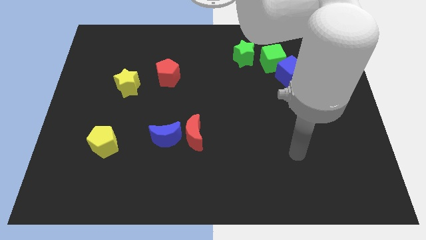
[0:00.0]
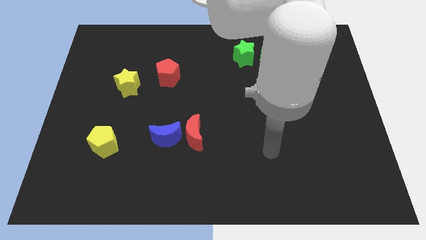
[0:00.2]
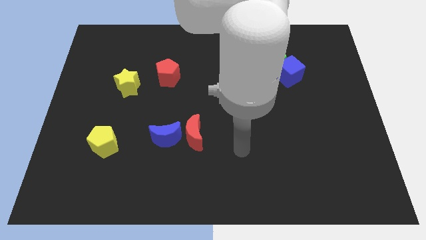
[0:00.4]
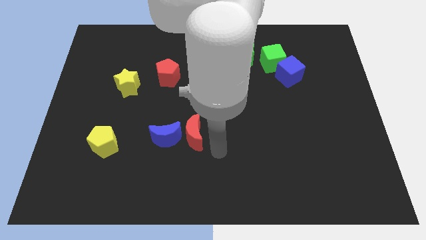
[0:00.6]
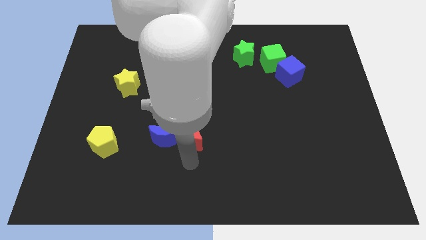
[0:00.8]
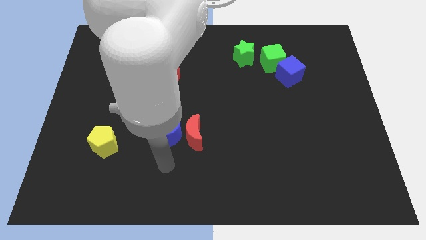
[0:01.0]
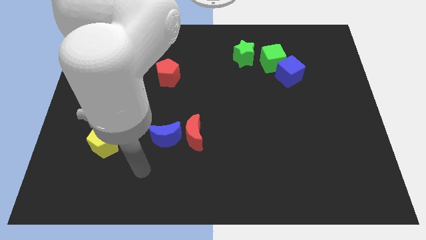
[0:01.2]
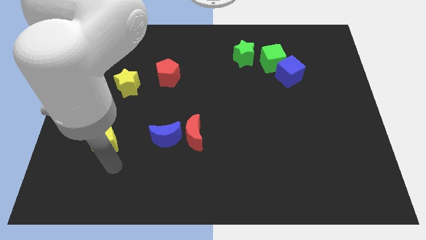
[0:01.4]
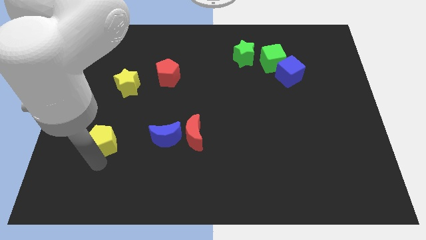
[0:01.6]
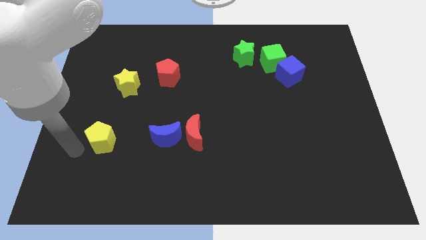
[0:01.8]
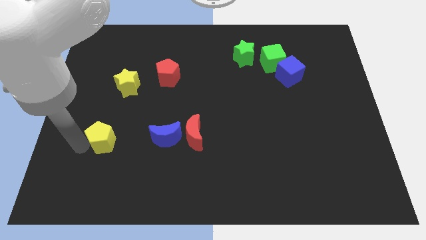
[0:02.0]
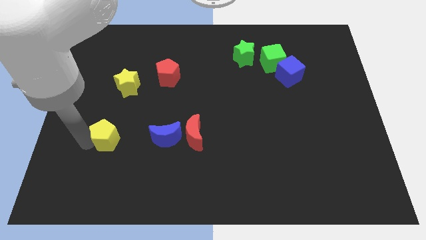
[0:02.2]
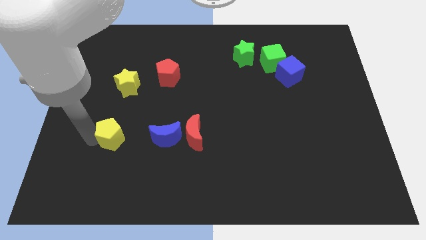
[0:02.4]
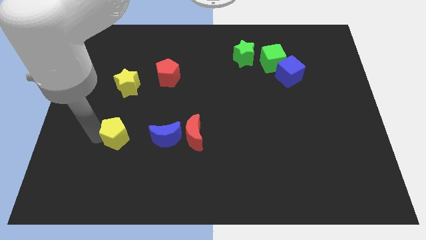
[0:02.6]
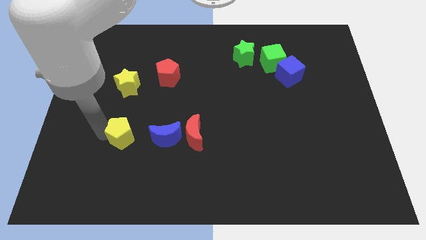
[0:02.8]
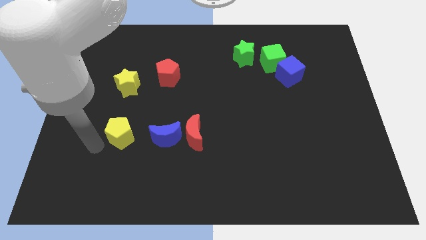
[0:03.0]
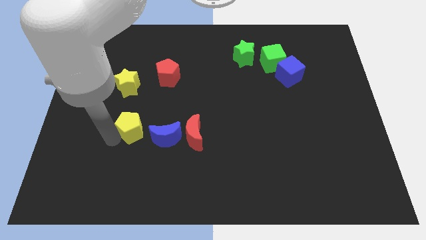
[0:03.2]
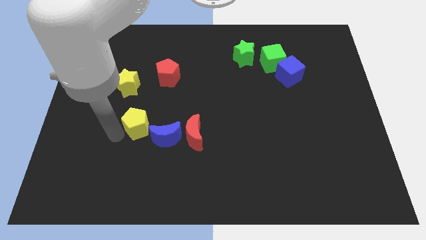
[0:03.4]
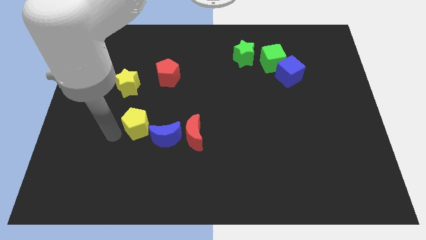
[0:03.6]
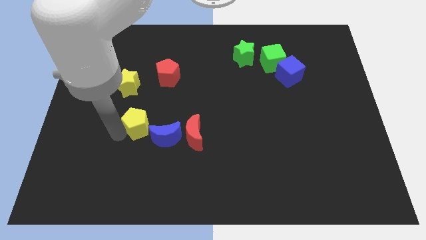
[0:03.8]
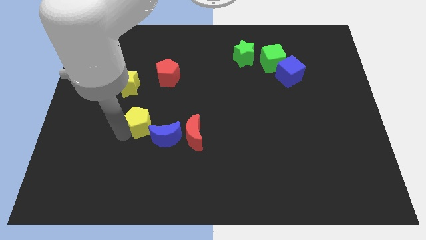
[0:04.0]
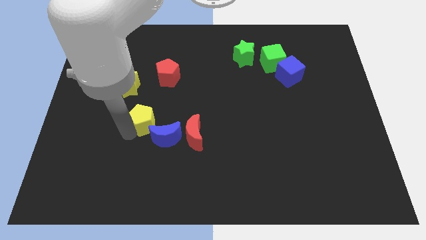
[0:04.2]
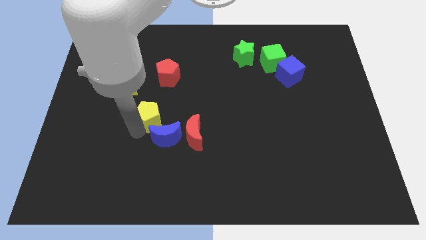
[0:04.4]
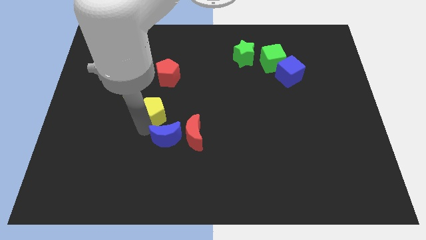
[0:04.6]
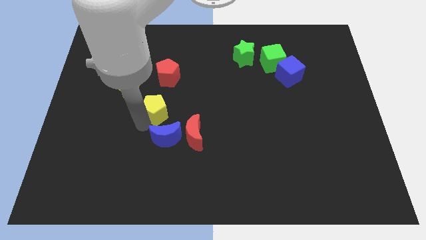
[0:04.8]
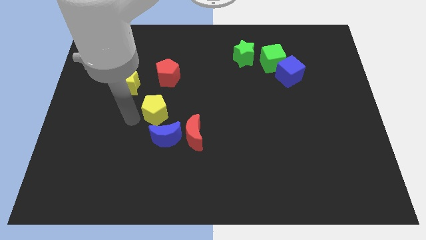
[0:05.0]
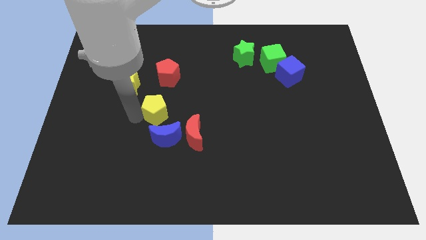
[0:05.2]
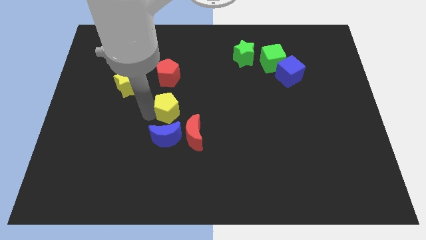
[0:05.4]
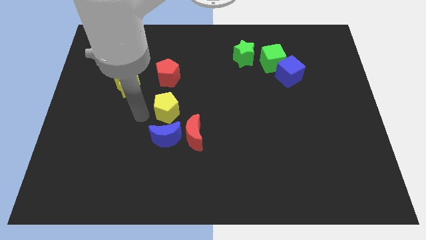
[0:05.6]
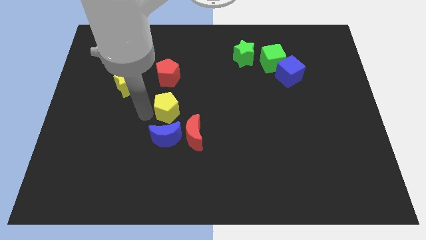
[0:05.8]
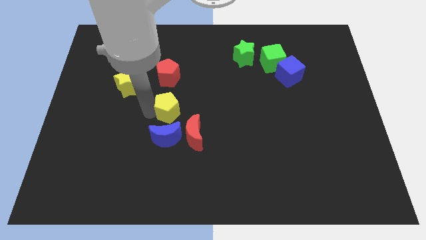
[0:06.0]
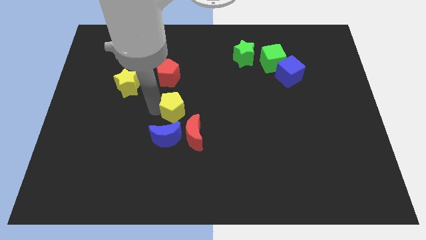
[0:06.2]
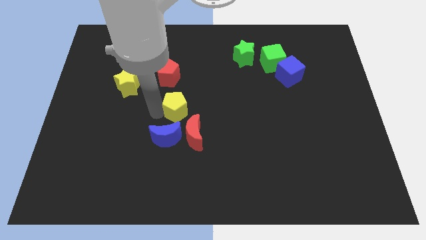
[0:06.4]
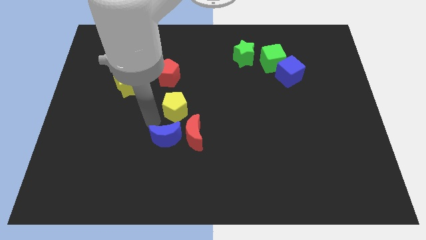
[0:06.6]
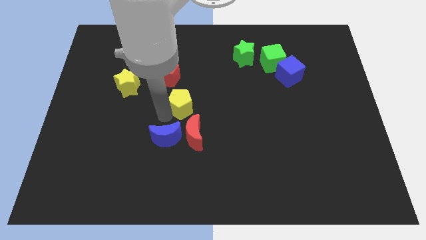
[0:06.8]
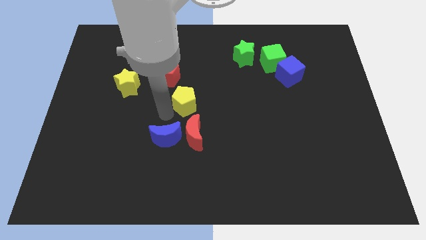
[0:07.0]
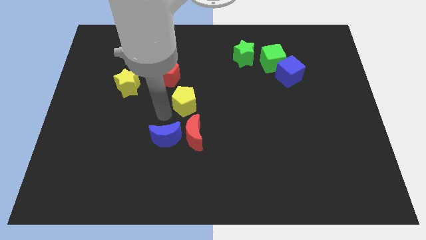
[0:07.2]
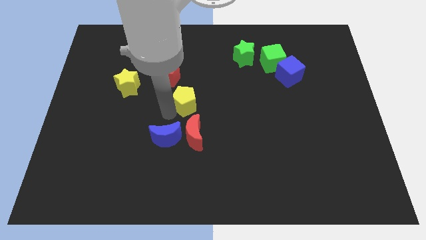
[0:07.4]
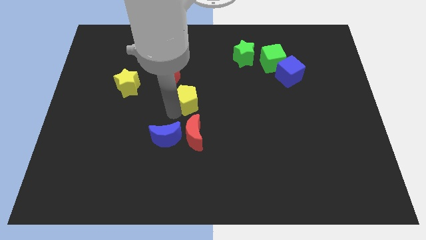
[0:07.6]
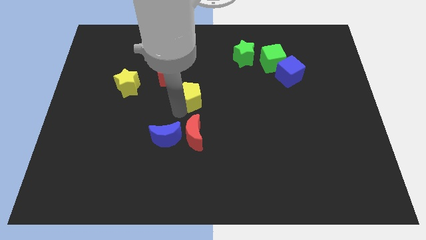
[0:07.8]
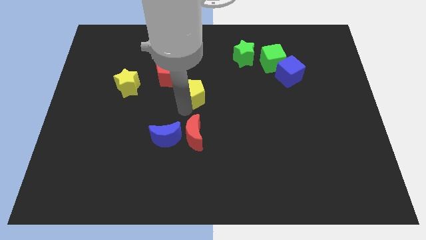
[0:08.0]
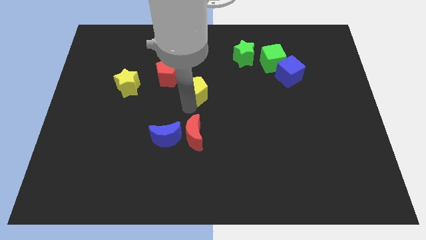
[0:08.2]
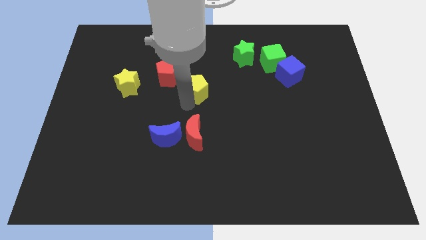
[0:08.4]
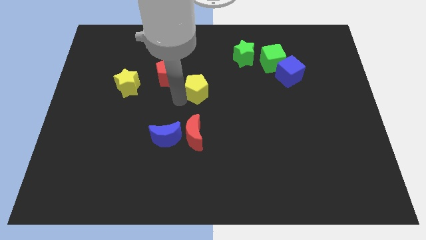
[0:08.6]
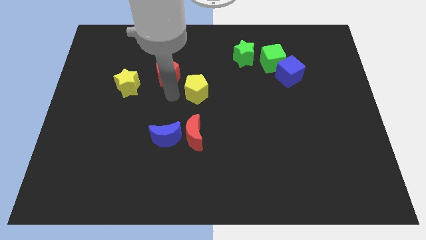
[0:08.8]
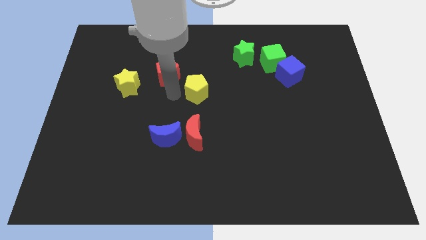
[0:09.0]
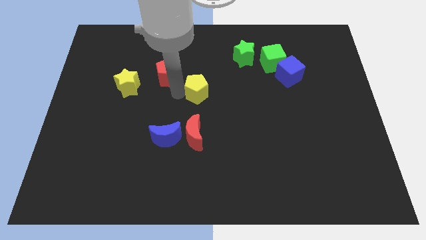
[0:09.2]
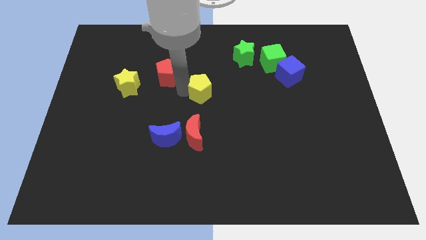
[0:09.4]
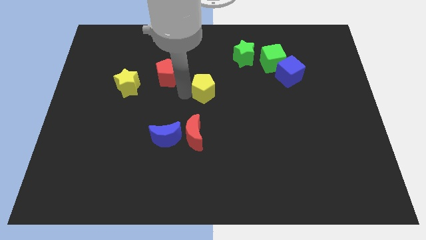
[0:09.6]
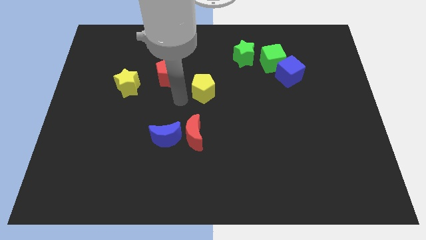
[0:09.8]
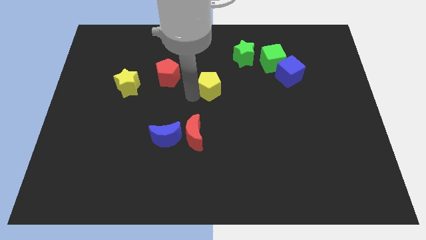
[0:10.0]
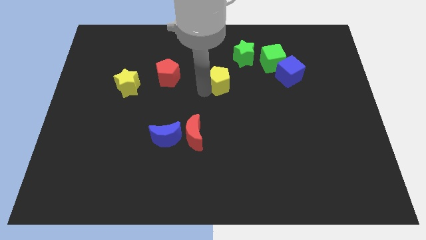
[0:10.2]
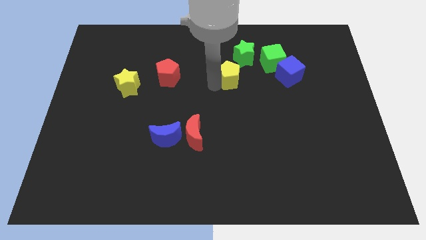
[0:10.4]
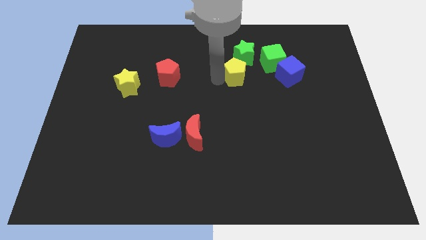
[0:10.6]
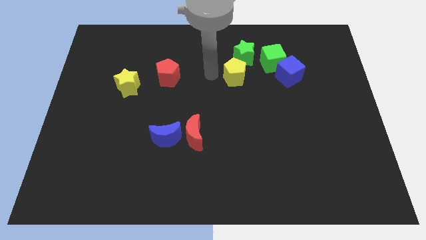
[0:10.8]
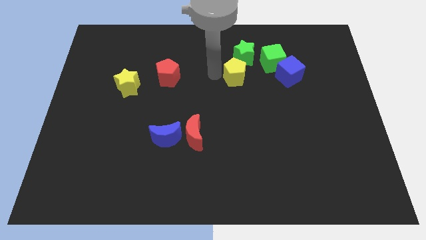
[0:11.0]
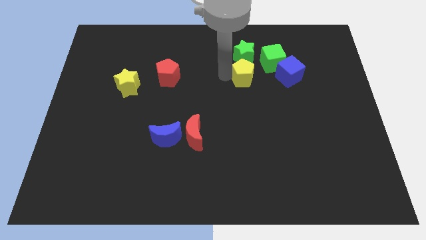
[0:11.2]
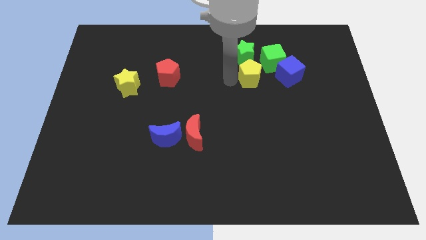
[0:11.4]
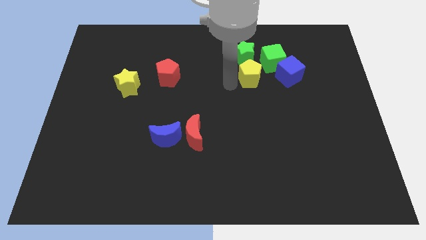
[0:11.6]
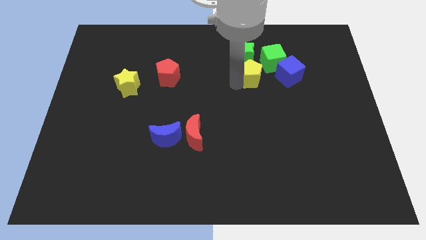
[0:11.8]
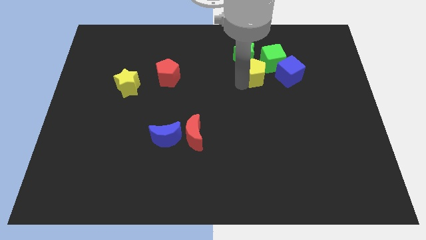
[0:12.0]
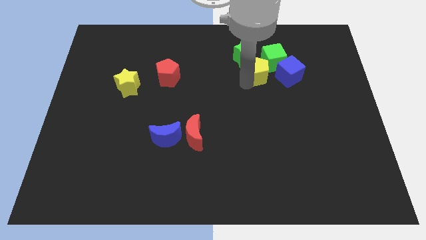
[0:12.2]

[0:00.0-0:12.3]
slide the yellow pentagon towards the green cube

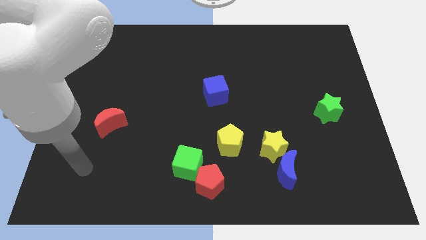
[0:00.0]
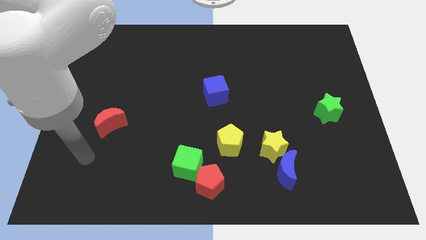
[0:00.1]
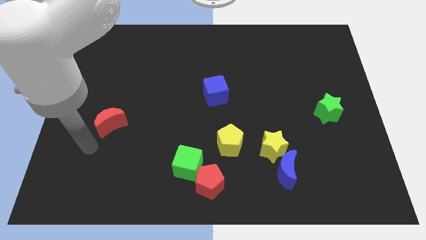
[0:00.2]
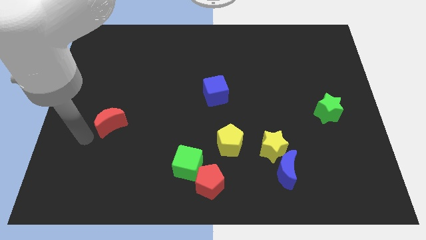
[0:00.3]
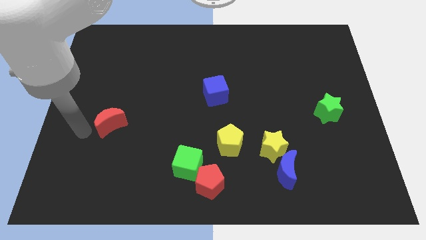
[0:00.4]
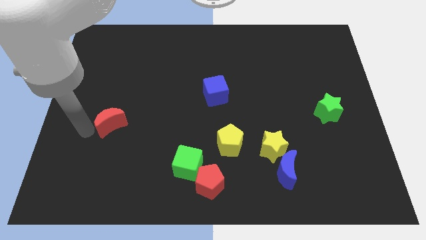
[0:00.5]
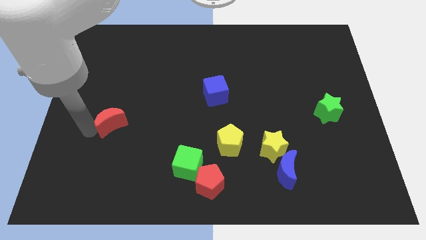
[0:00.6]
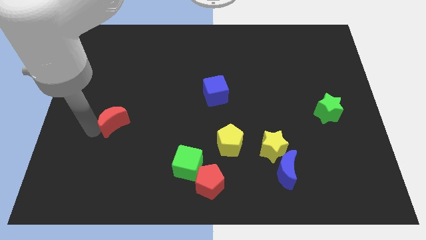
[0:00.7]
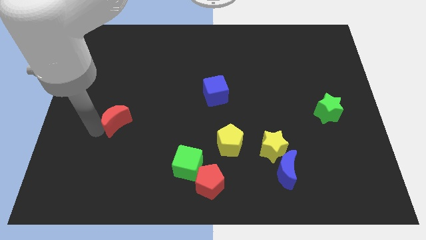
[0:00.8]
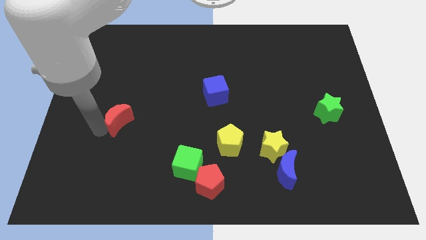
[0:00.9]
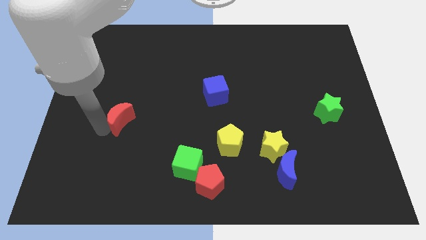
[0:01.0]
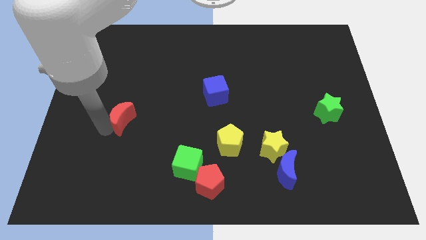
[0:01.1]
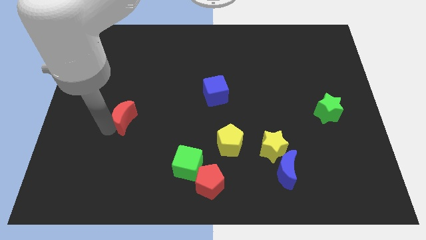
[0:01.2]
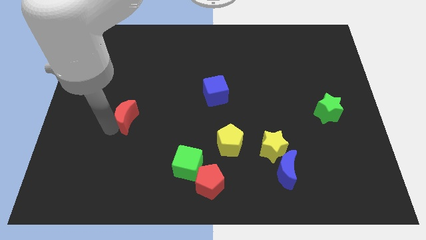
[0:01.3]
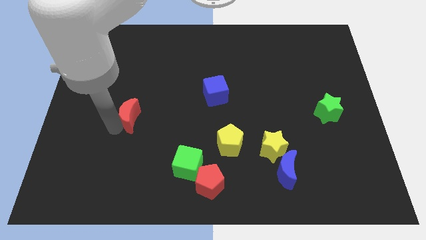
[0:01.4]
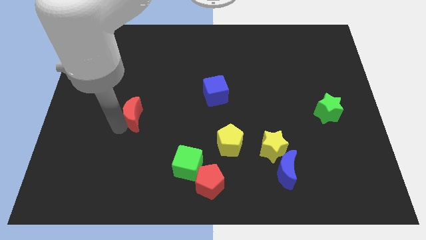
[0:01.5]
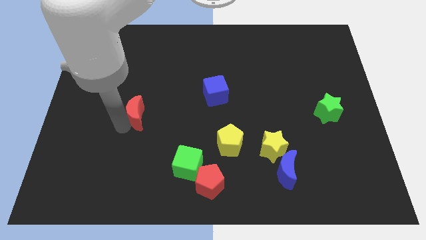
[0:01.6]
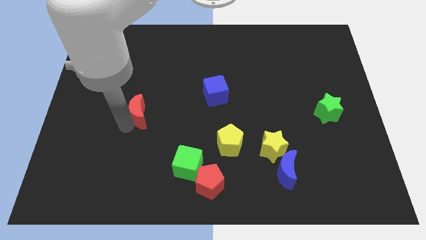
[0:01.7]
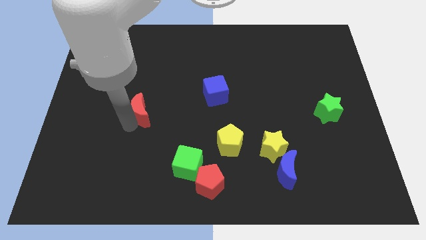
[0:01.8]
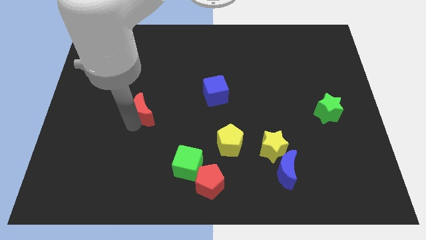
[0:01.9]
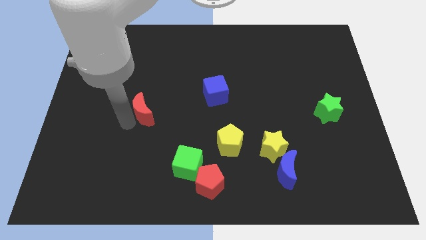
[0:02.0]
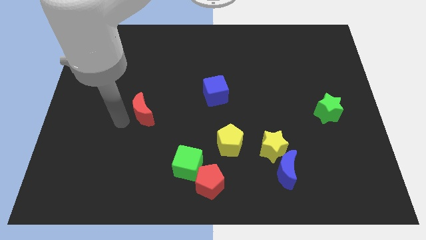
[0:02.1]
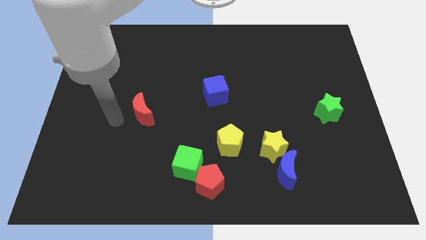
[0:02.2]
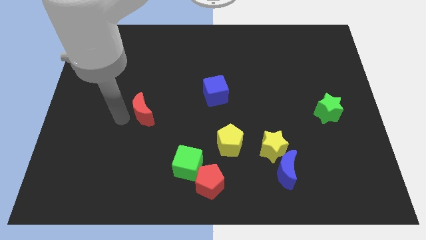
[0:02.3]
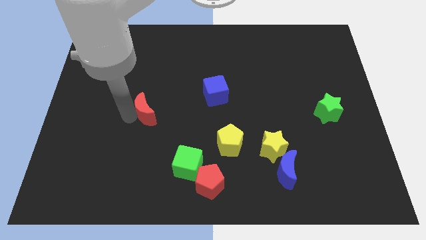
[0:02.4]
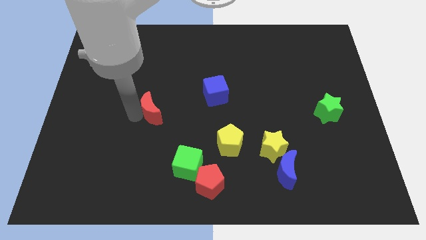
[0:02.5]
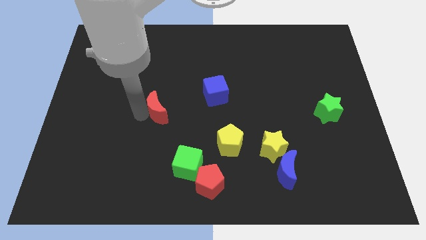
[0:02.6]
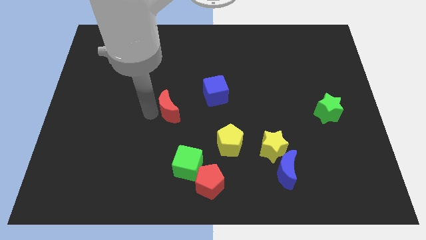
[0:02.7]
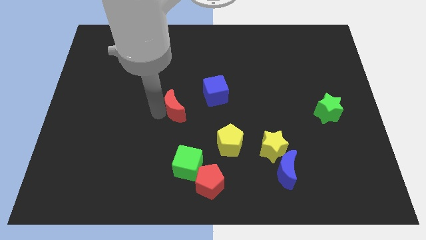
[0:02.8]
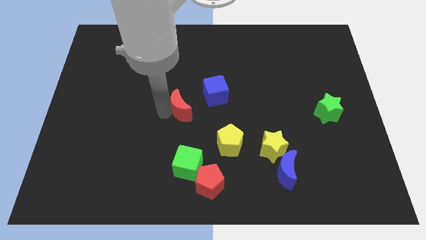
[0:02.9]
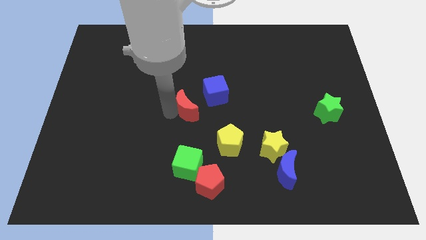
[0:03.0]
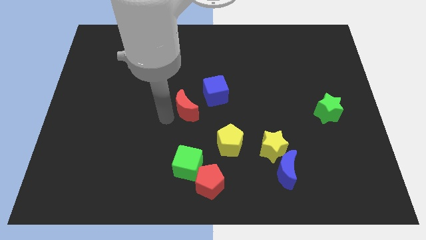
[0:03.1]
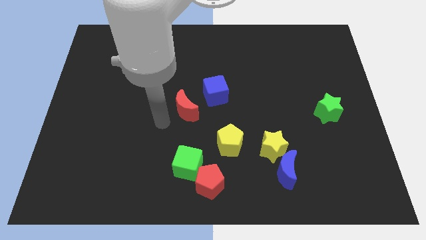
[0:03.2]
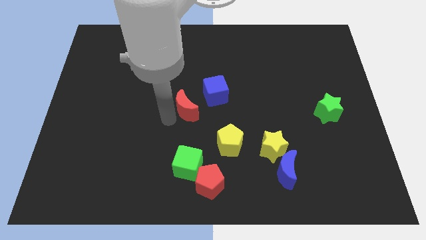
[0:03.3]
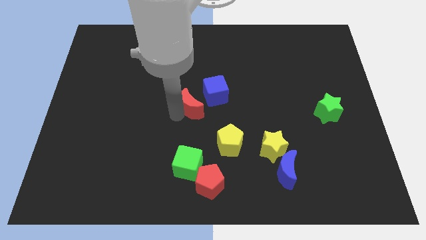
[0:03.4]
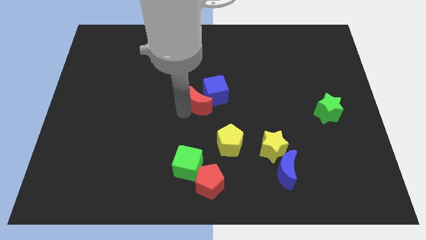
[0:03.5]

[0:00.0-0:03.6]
put the red moon close to the blue cube
